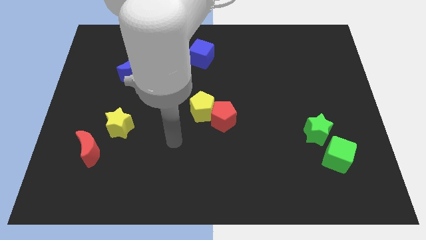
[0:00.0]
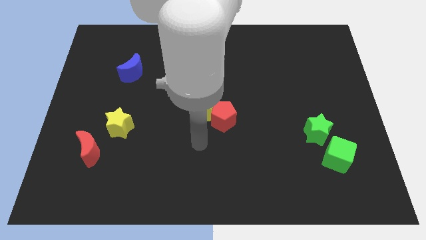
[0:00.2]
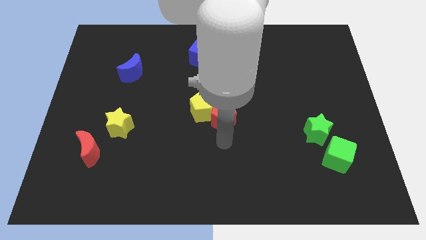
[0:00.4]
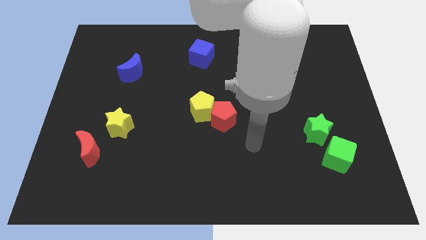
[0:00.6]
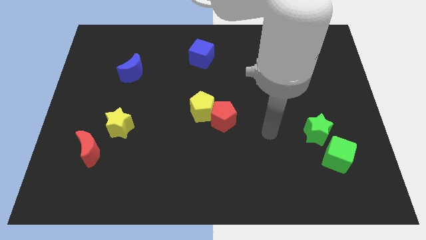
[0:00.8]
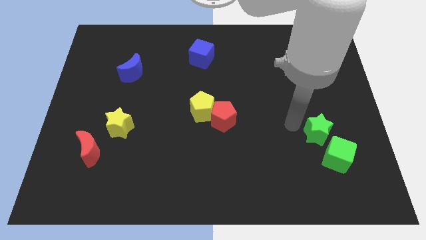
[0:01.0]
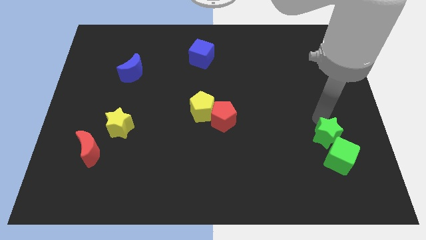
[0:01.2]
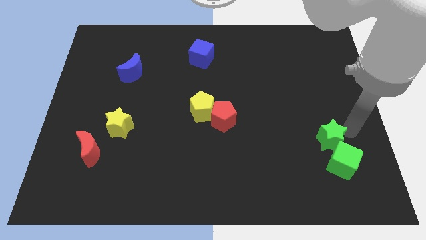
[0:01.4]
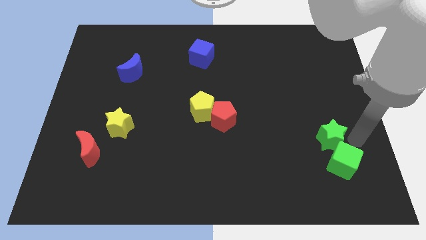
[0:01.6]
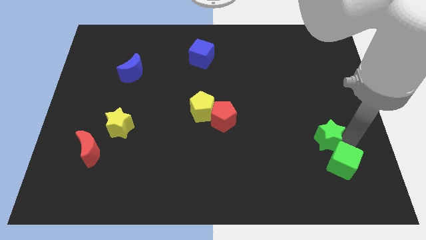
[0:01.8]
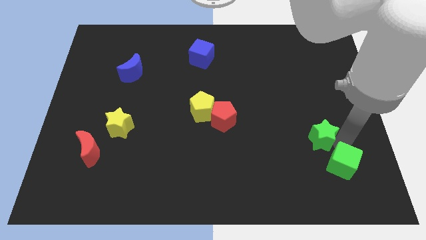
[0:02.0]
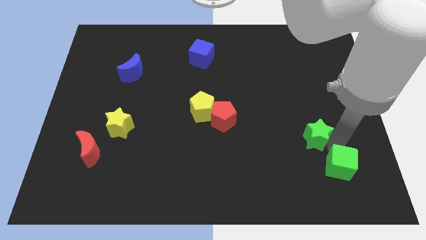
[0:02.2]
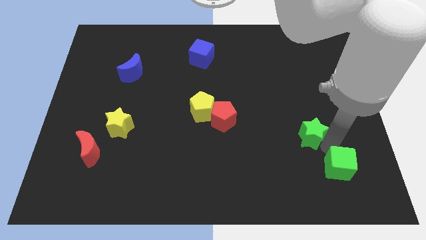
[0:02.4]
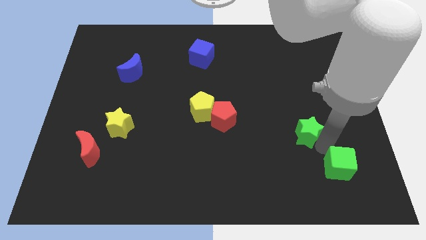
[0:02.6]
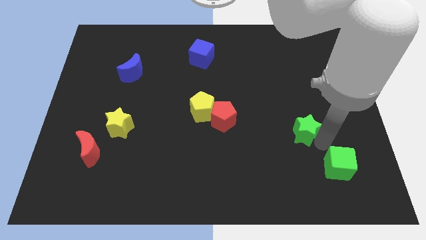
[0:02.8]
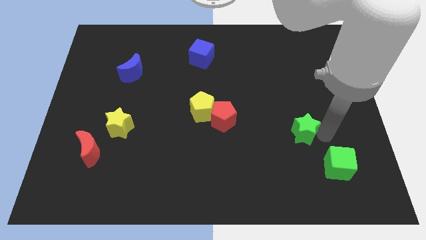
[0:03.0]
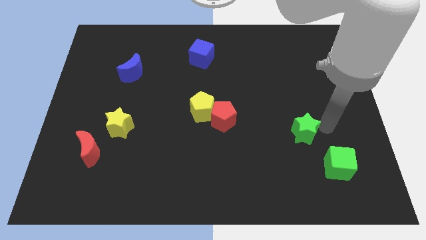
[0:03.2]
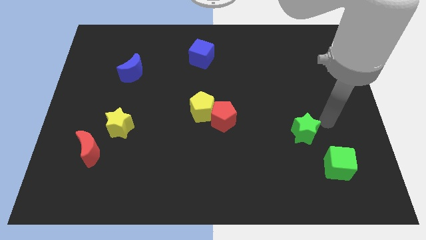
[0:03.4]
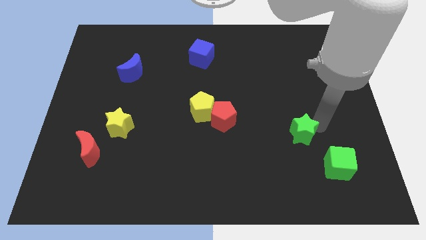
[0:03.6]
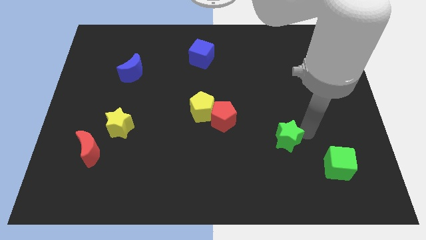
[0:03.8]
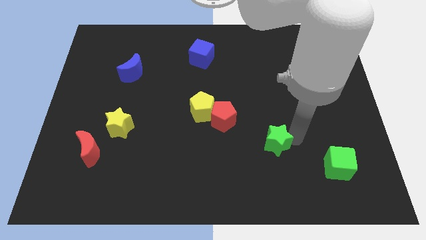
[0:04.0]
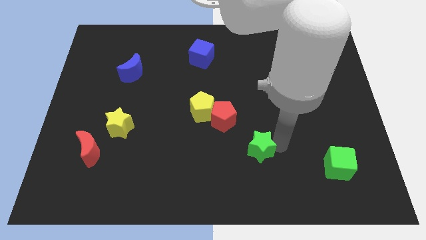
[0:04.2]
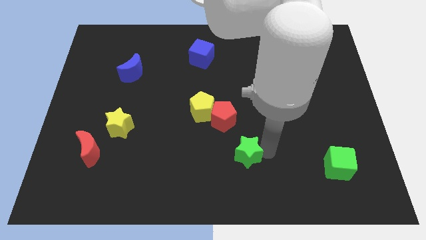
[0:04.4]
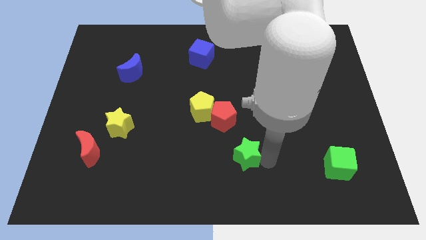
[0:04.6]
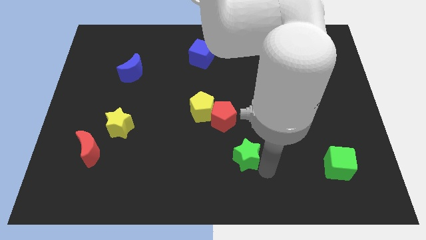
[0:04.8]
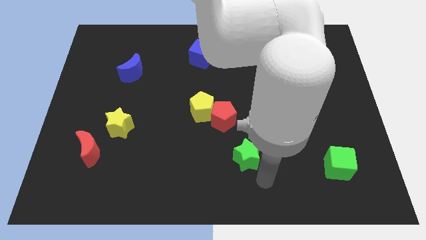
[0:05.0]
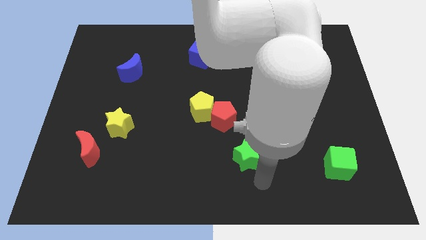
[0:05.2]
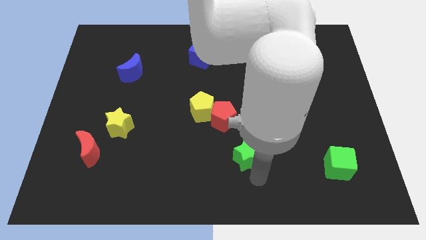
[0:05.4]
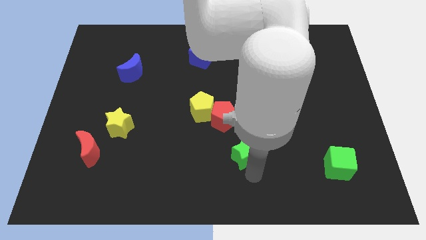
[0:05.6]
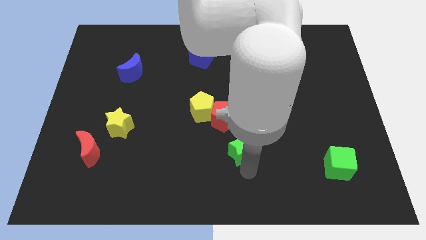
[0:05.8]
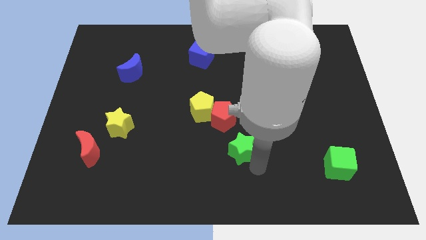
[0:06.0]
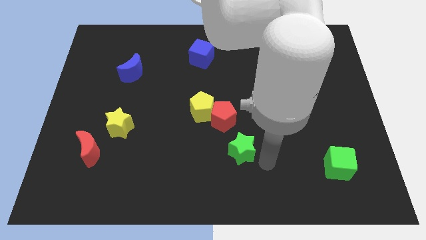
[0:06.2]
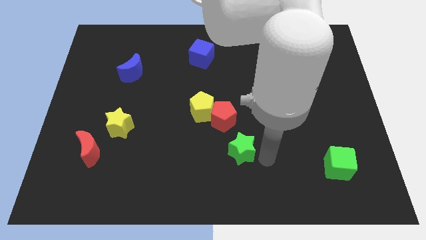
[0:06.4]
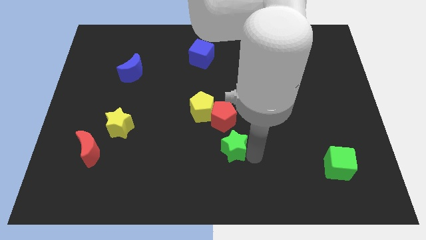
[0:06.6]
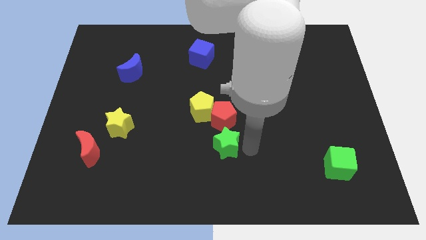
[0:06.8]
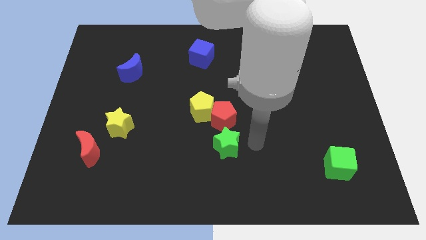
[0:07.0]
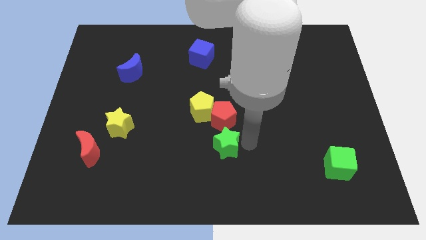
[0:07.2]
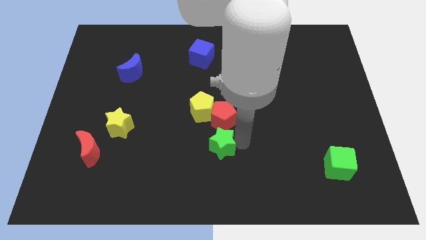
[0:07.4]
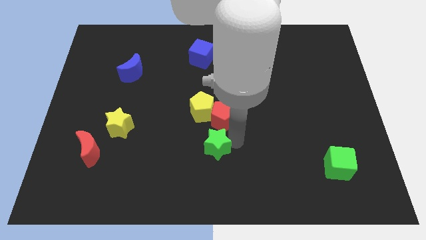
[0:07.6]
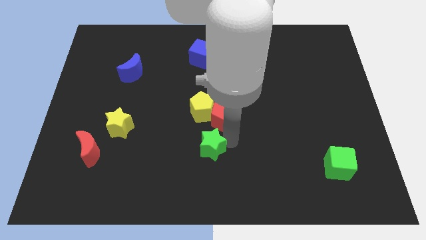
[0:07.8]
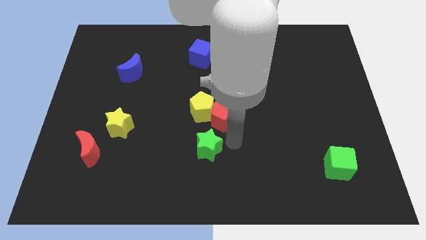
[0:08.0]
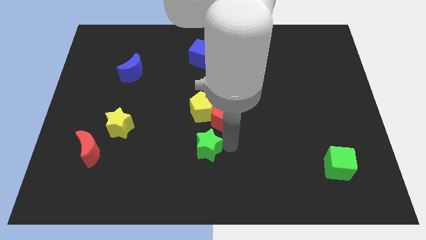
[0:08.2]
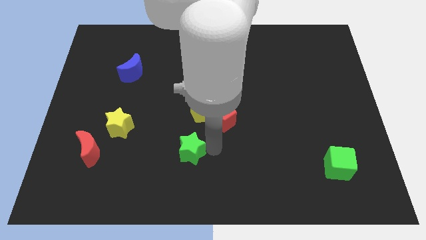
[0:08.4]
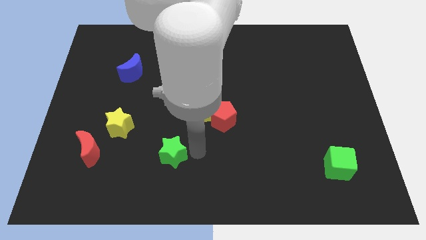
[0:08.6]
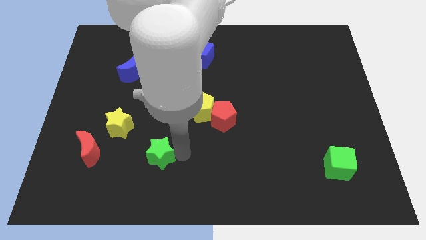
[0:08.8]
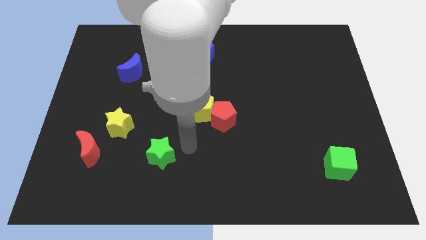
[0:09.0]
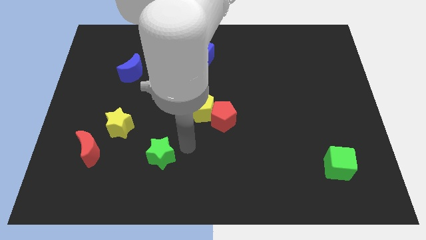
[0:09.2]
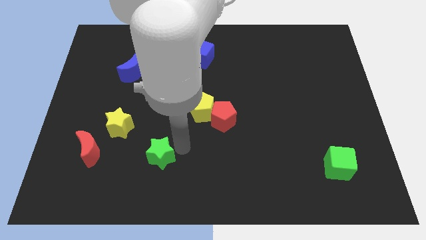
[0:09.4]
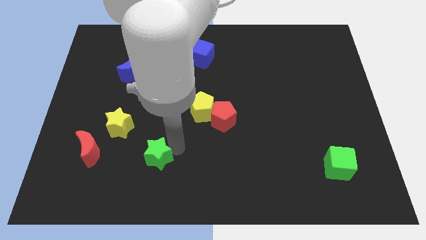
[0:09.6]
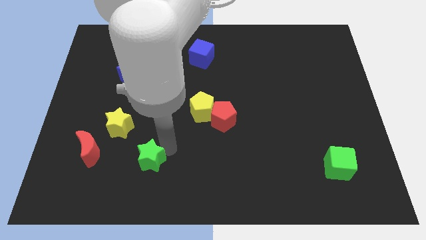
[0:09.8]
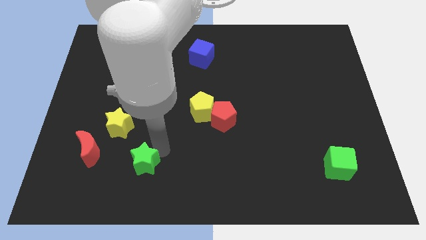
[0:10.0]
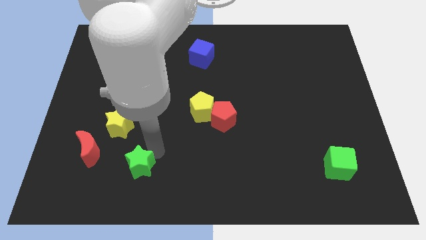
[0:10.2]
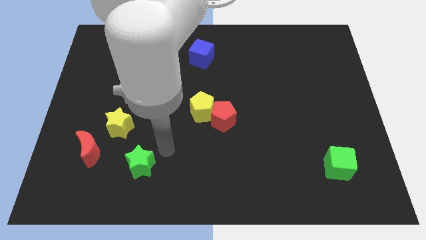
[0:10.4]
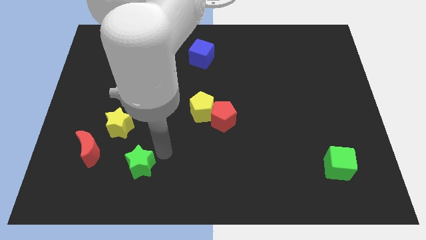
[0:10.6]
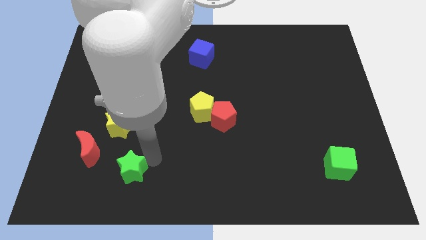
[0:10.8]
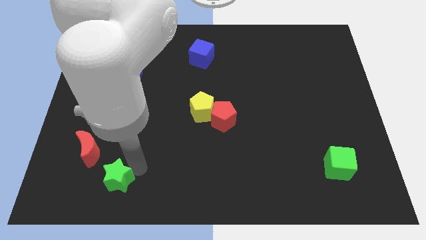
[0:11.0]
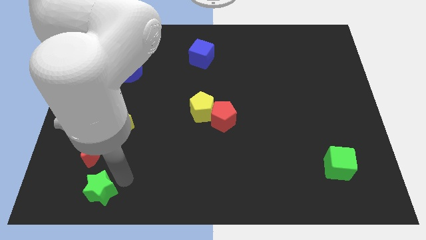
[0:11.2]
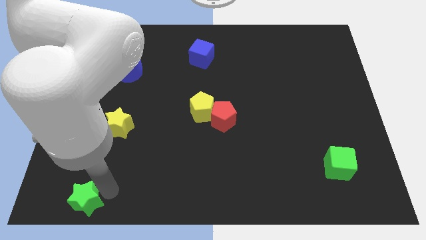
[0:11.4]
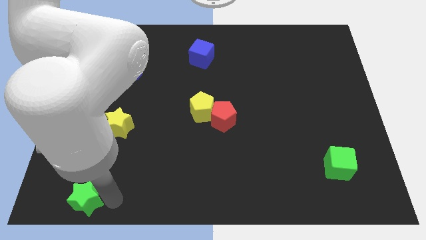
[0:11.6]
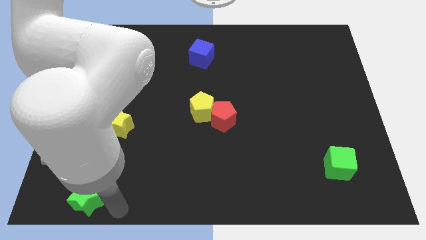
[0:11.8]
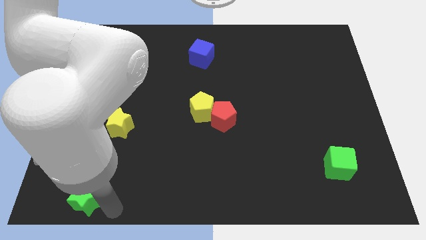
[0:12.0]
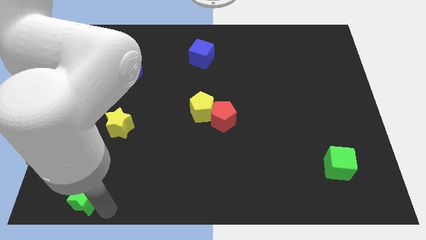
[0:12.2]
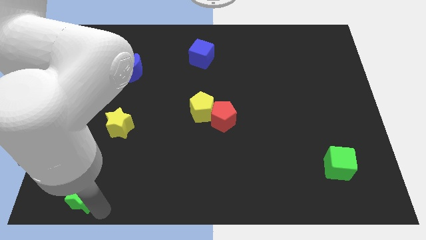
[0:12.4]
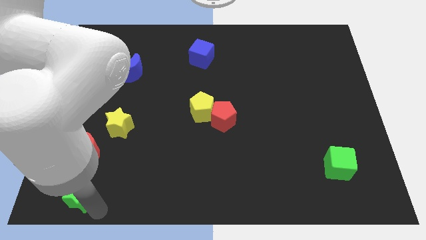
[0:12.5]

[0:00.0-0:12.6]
move the green star to the bottom left of the board
